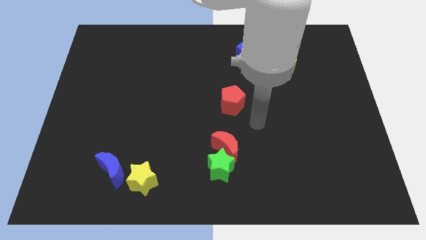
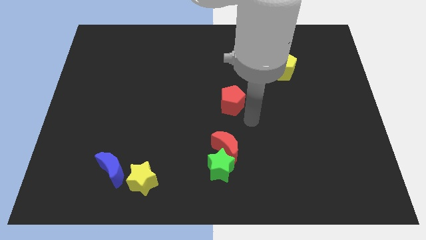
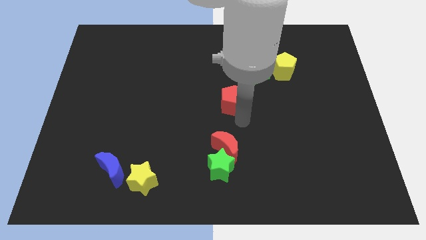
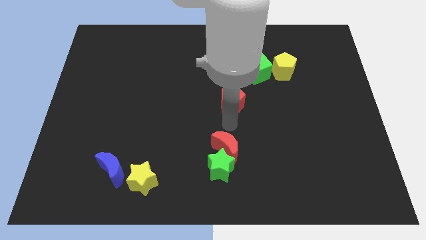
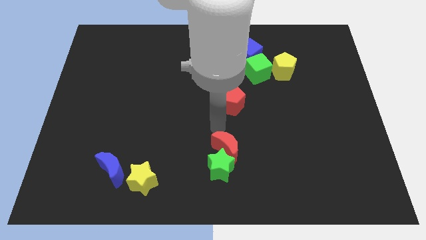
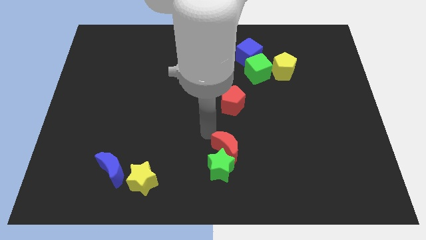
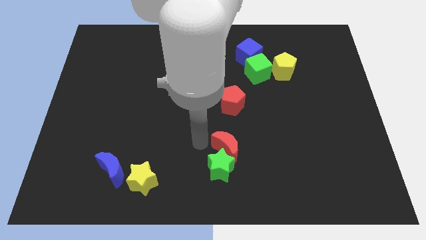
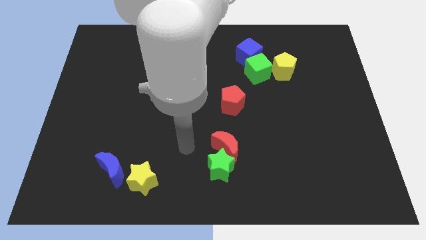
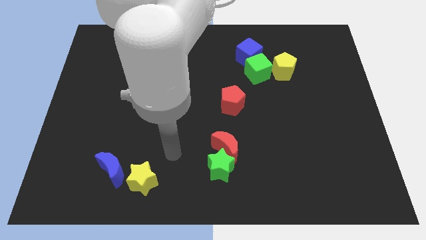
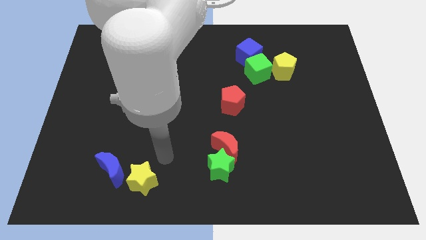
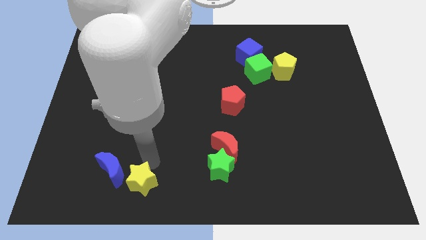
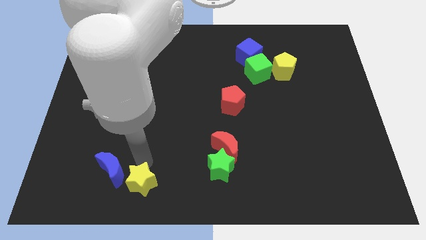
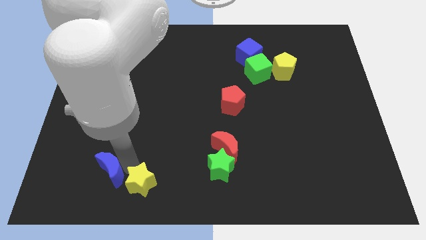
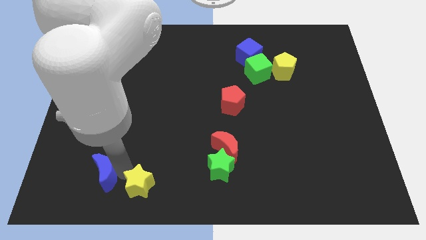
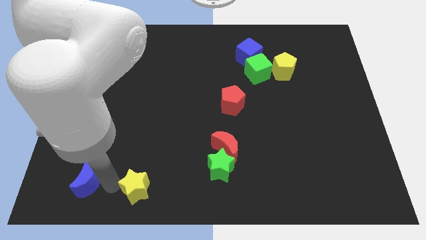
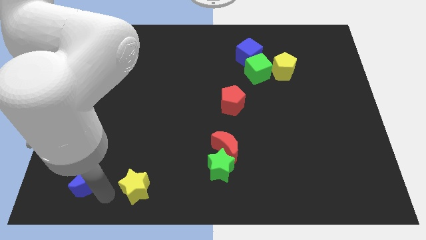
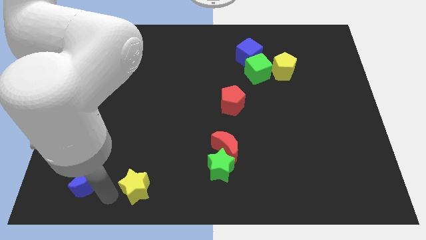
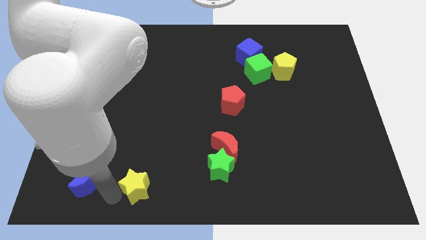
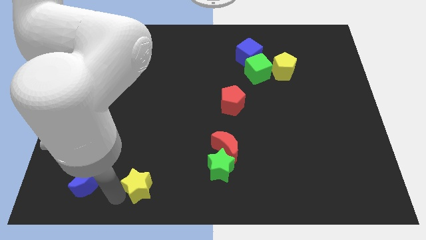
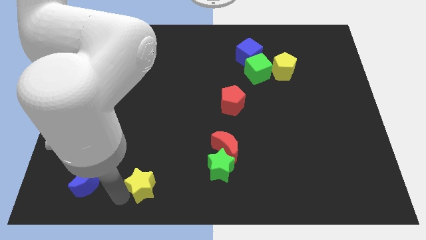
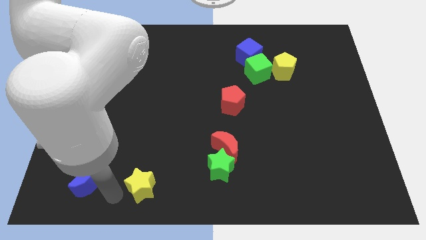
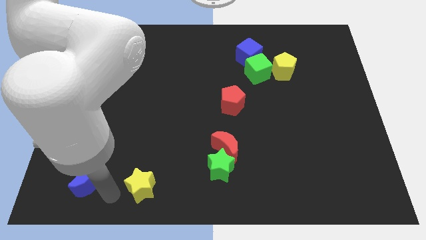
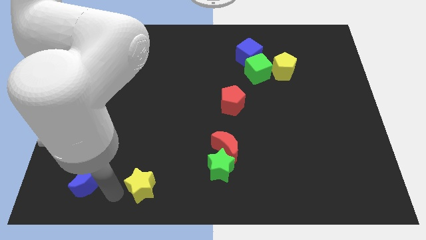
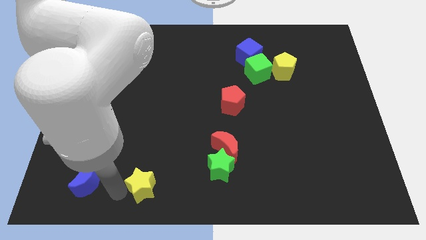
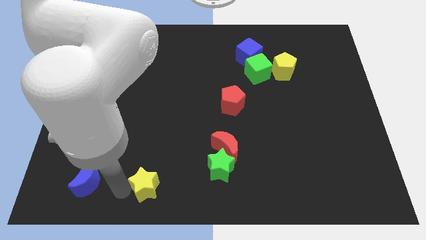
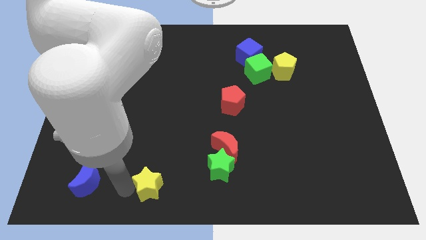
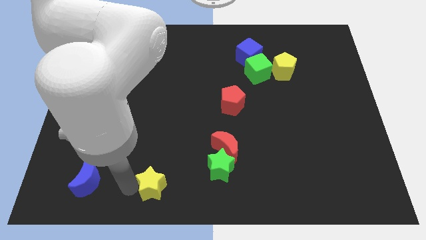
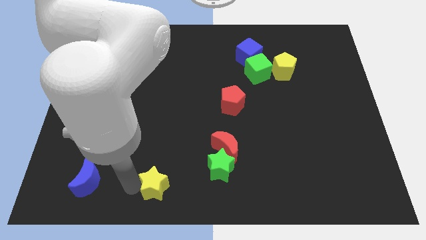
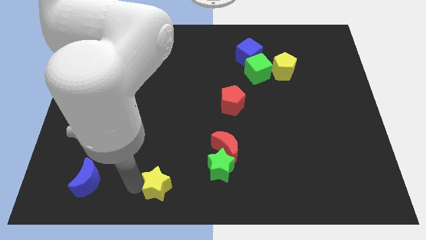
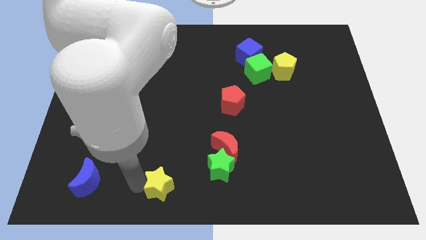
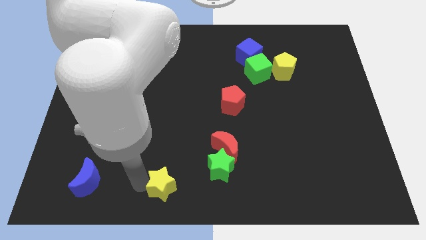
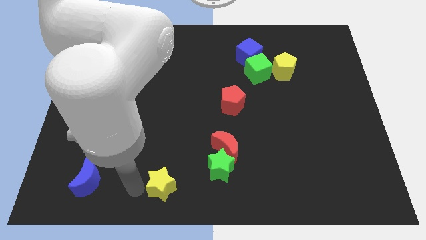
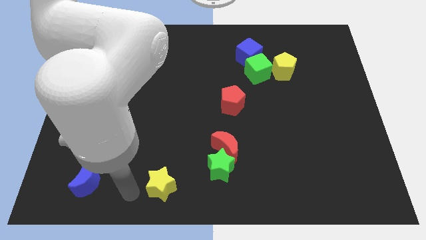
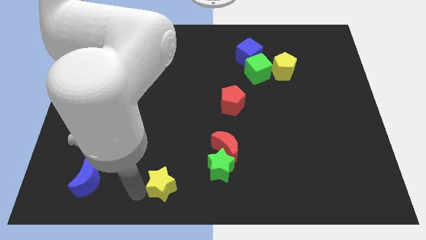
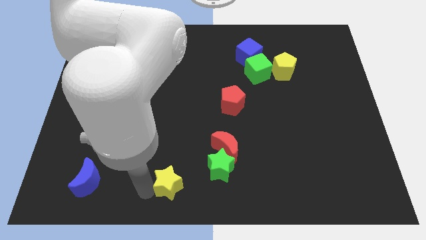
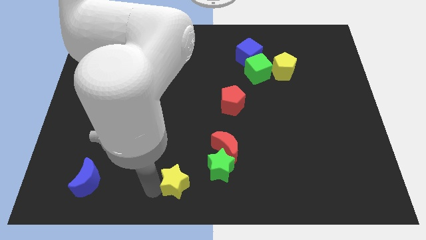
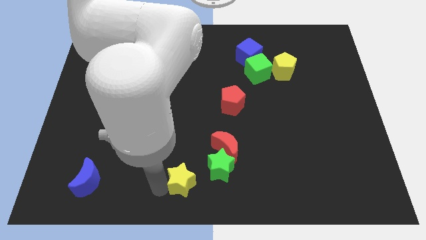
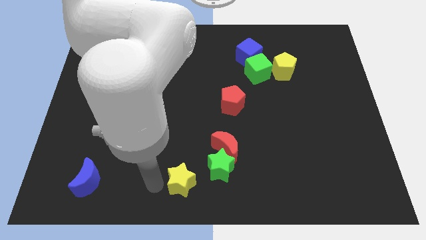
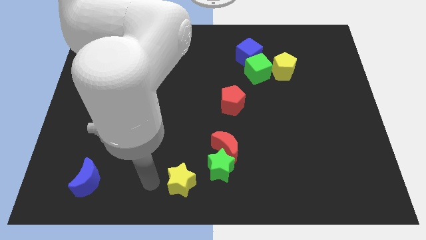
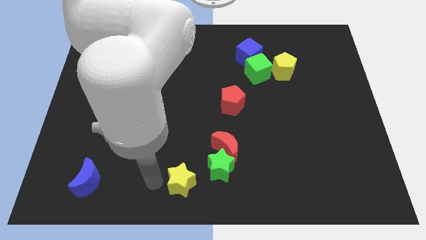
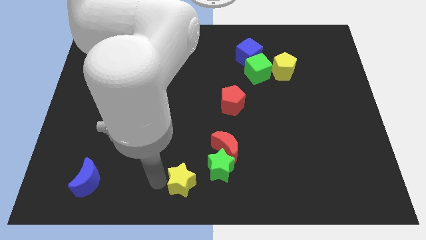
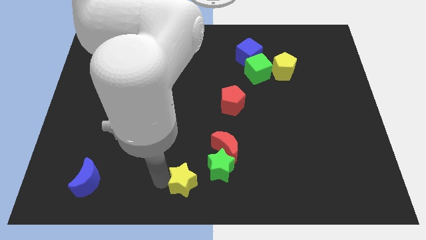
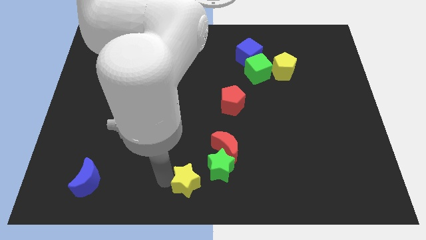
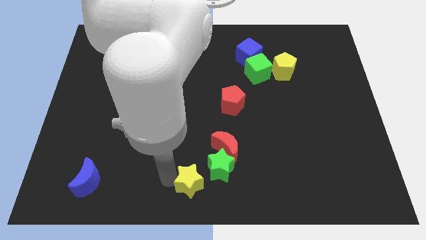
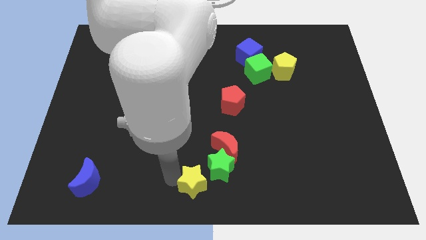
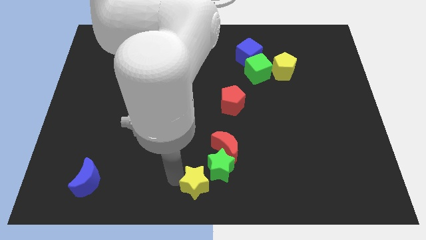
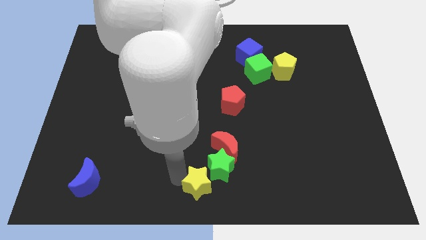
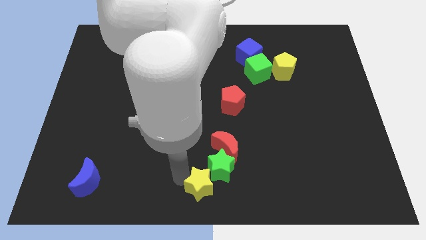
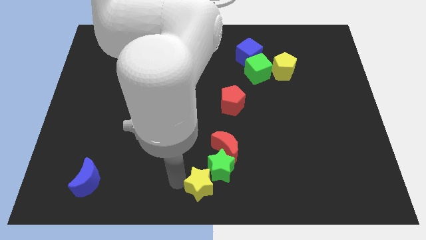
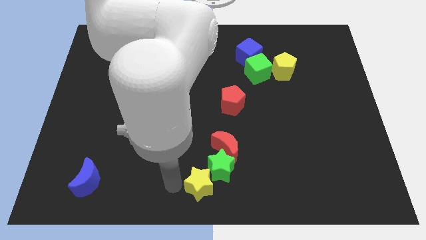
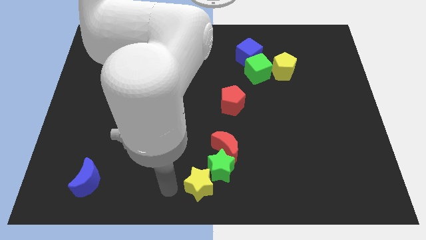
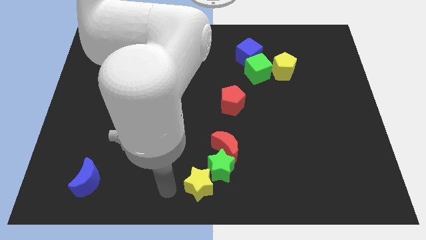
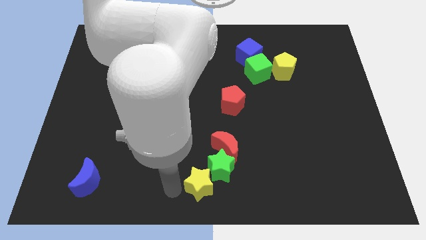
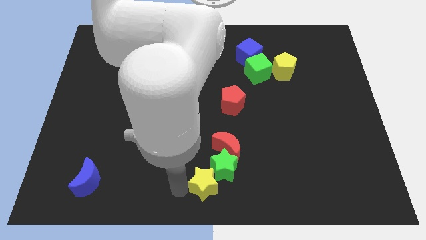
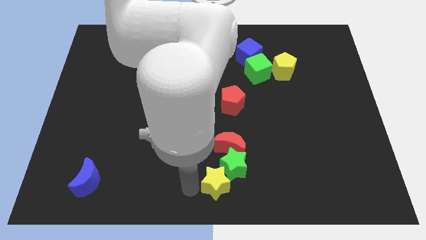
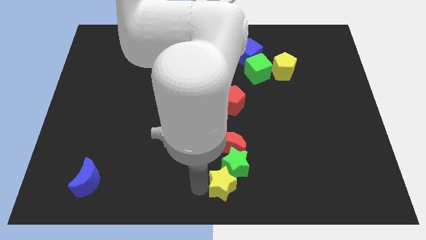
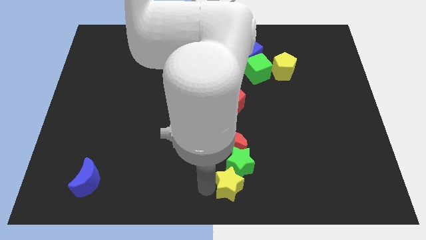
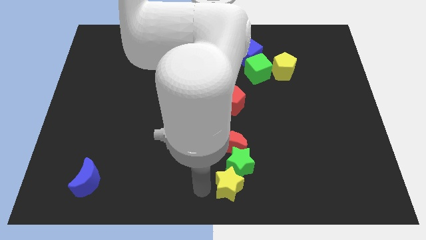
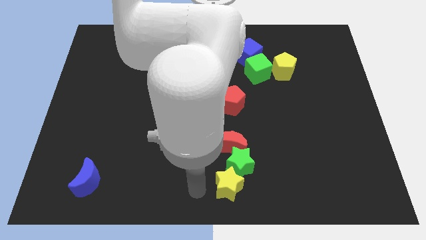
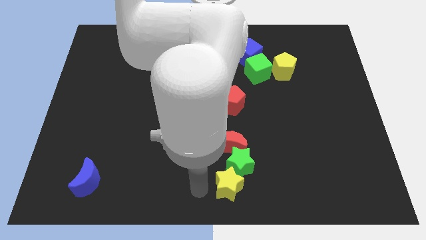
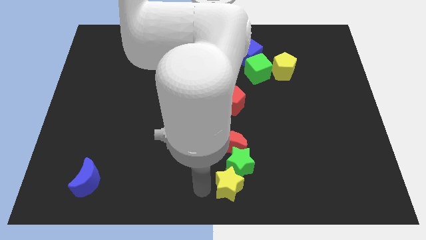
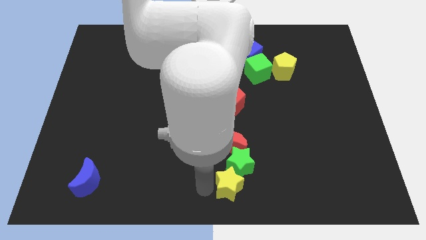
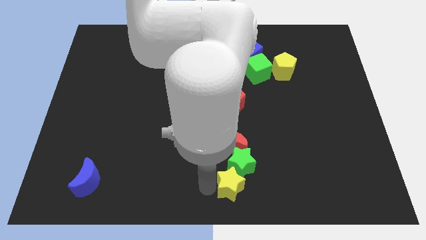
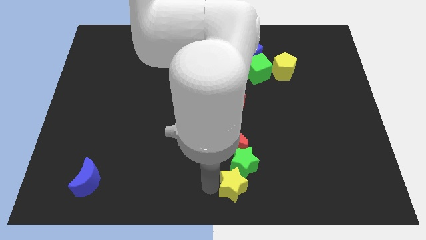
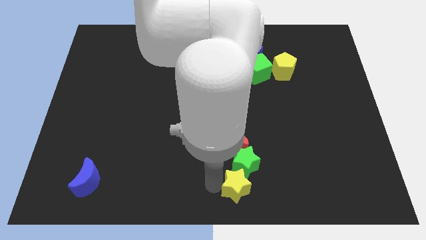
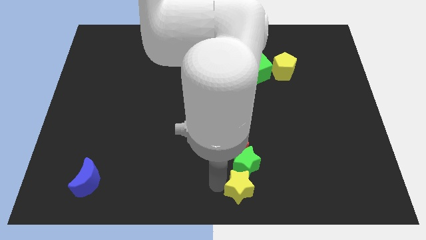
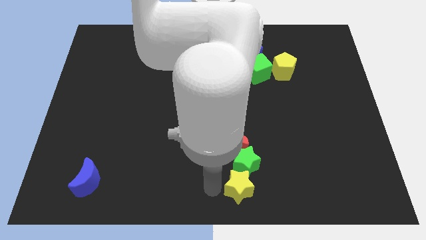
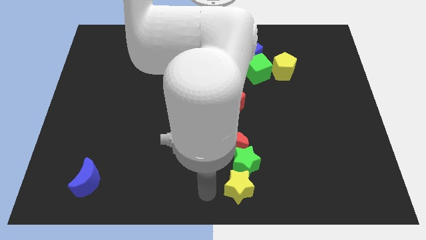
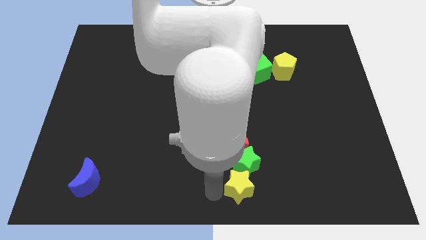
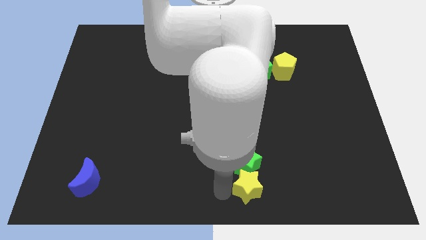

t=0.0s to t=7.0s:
push the yellow star to the right

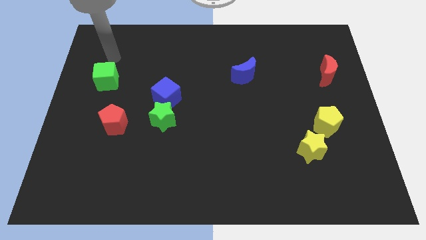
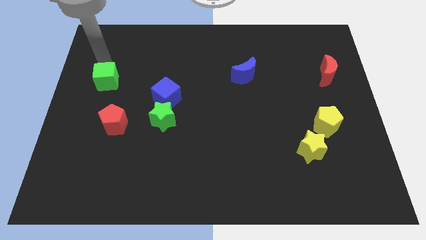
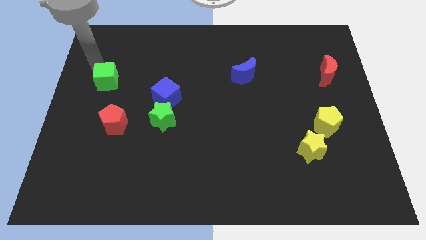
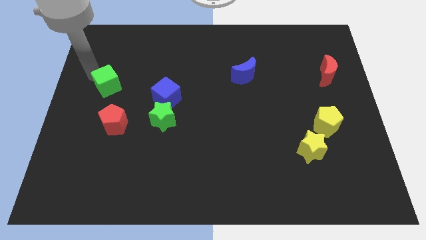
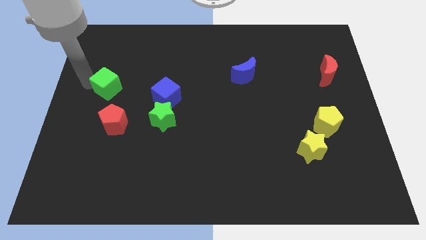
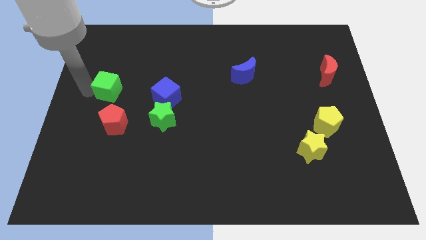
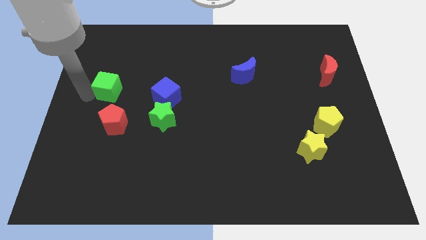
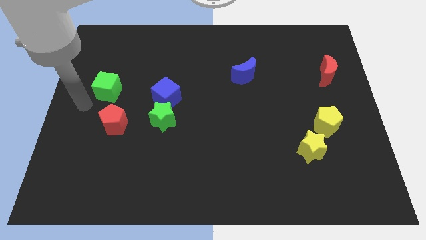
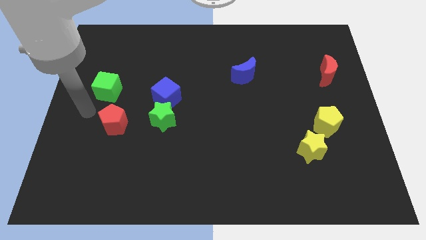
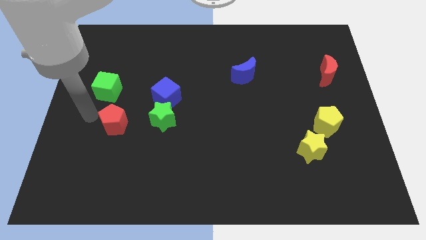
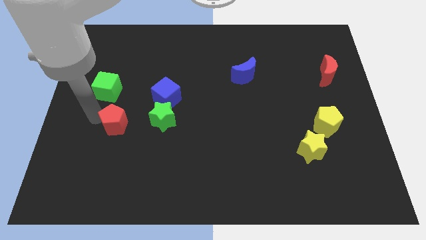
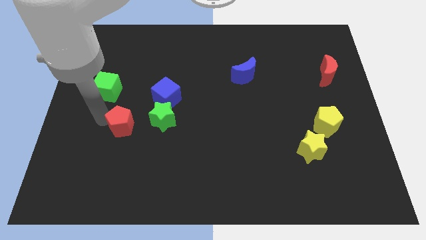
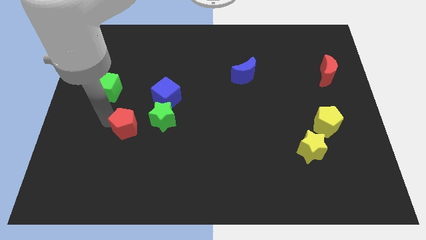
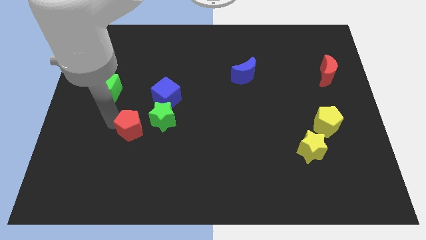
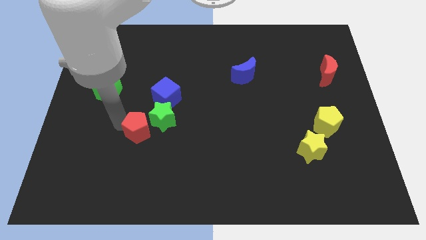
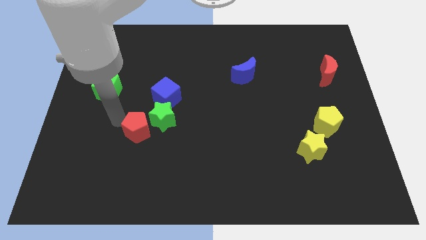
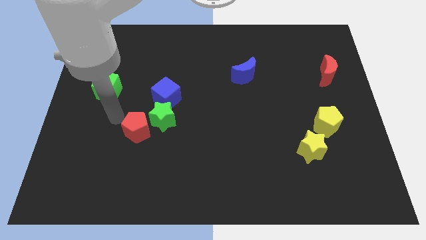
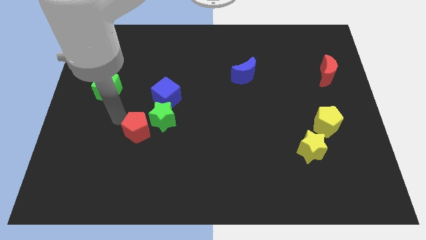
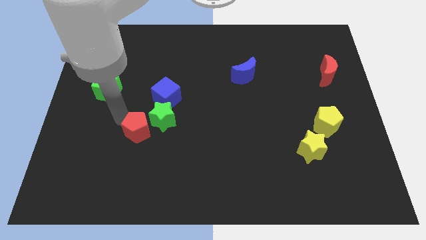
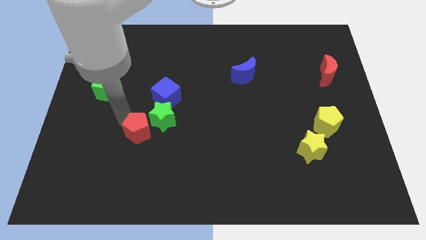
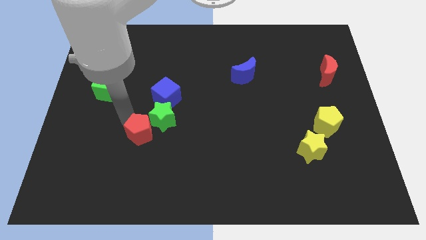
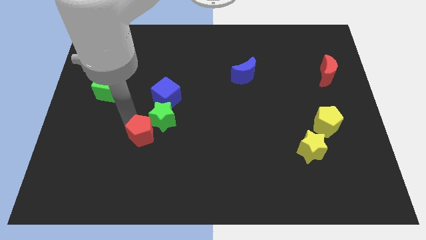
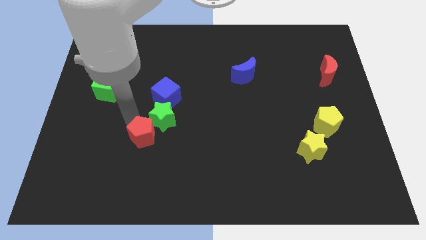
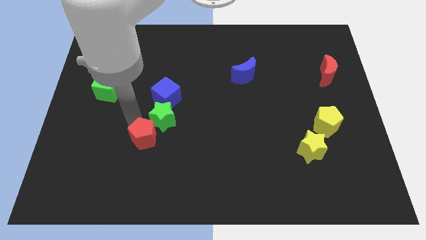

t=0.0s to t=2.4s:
move the red pentagon a little bit to the right
